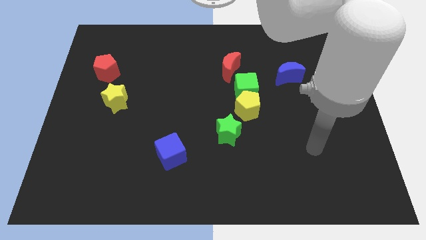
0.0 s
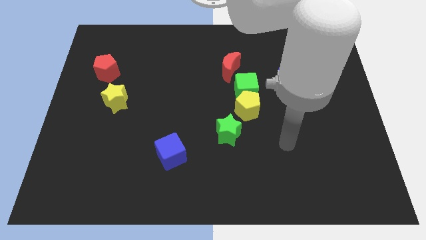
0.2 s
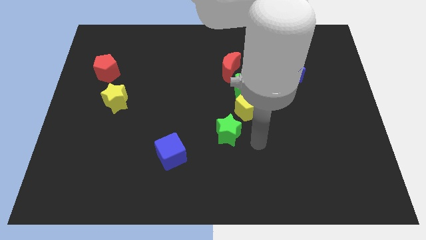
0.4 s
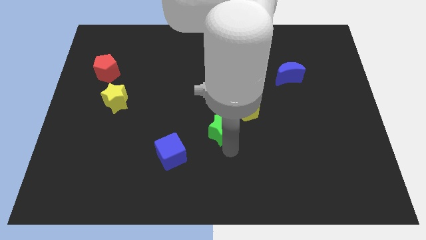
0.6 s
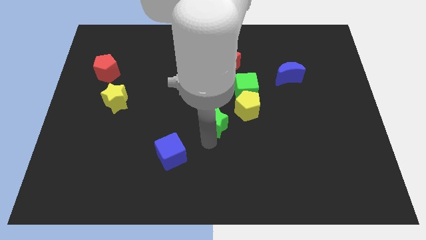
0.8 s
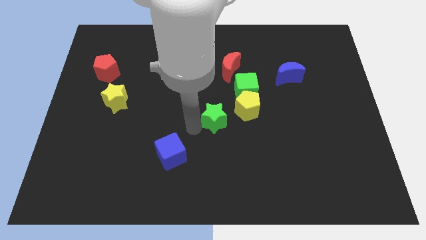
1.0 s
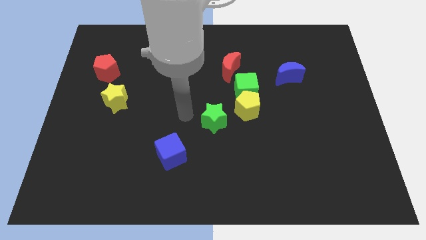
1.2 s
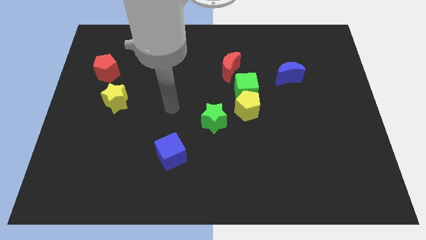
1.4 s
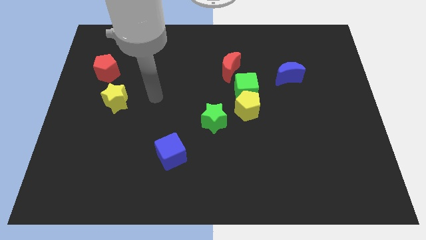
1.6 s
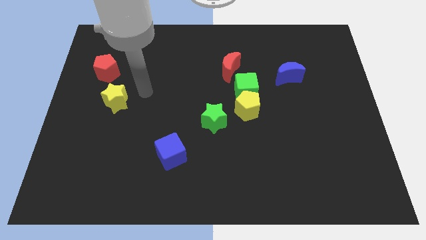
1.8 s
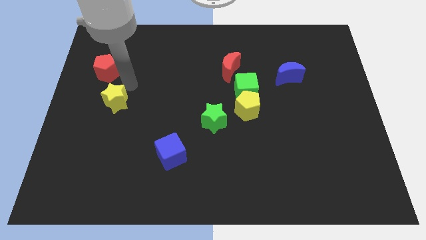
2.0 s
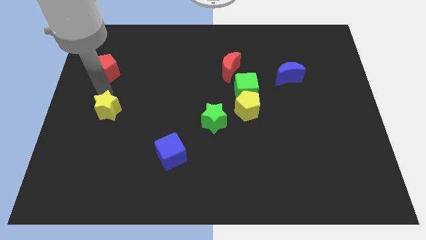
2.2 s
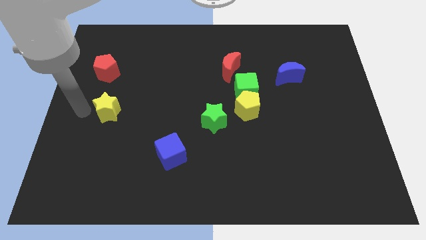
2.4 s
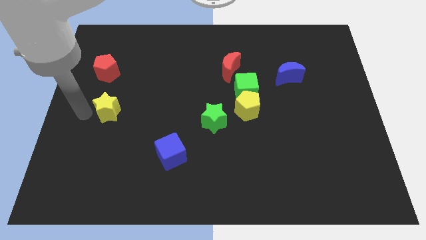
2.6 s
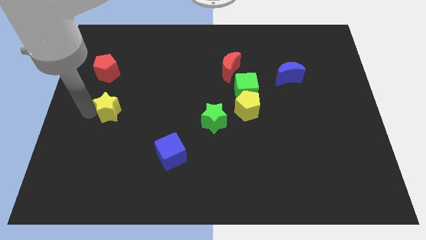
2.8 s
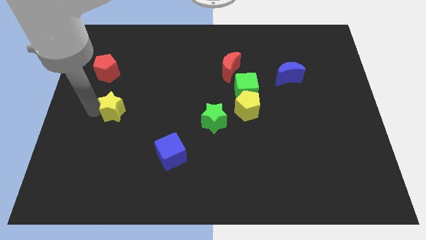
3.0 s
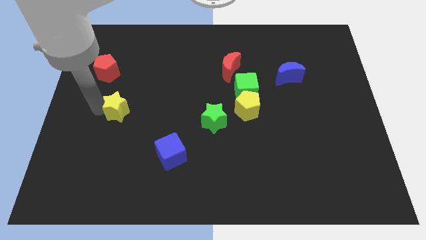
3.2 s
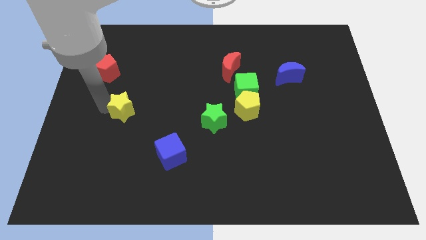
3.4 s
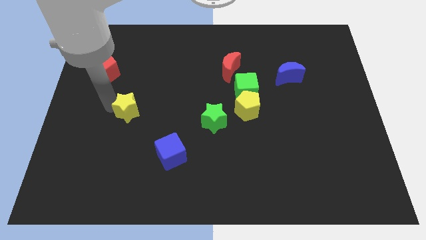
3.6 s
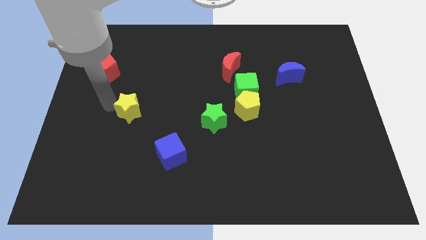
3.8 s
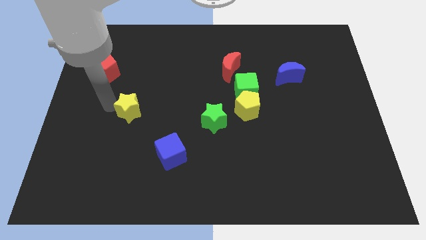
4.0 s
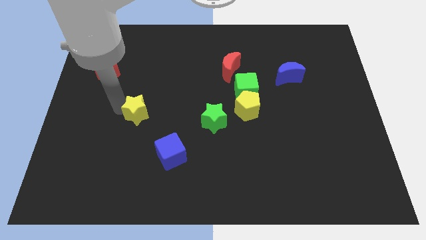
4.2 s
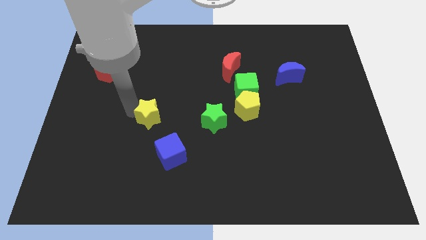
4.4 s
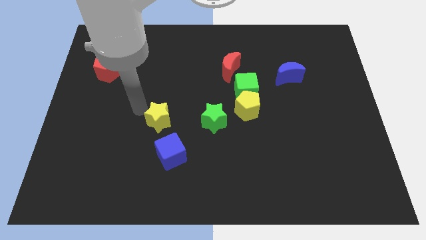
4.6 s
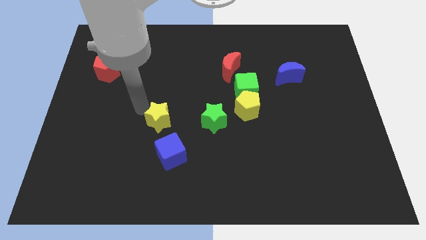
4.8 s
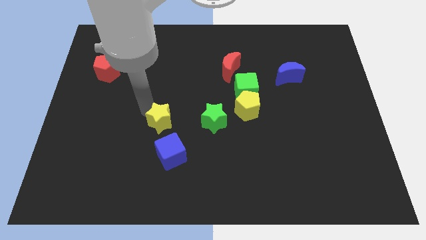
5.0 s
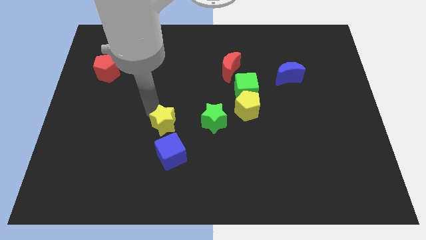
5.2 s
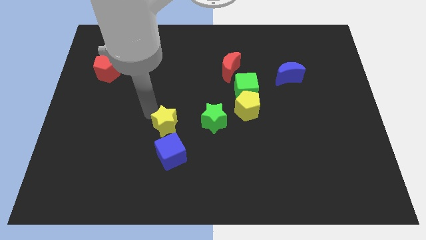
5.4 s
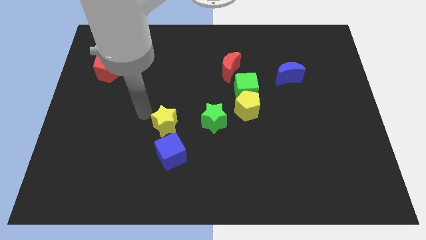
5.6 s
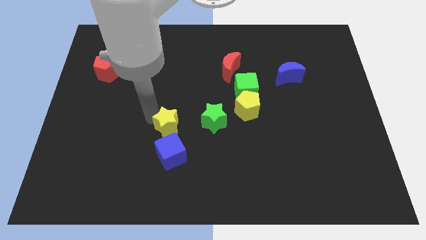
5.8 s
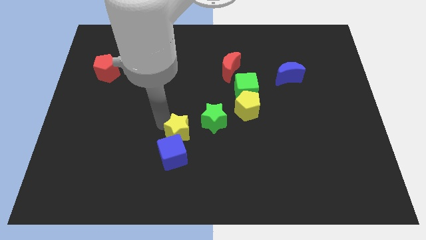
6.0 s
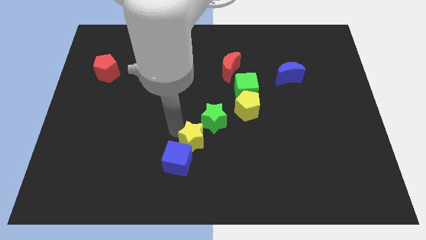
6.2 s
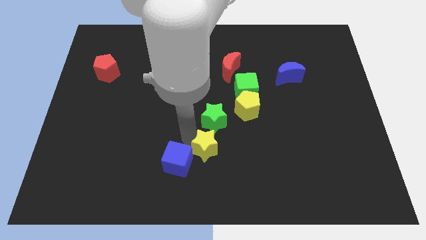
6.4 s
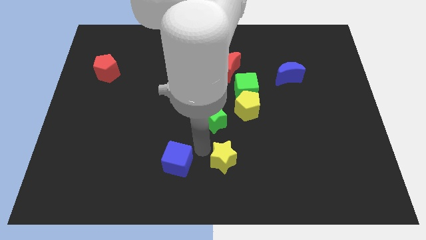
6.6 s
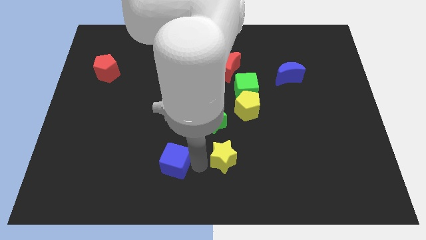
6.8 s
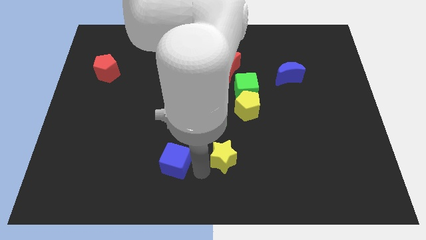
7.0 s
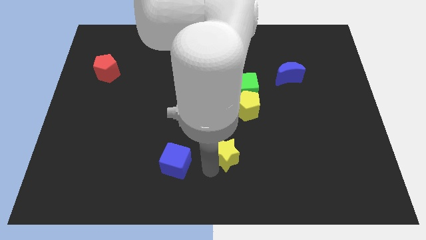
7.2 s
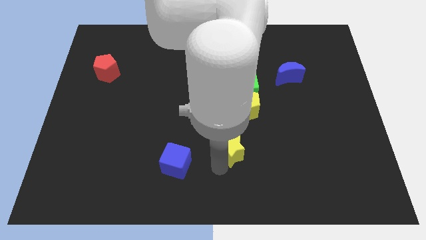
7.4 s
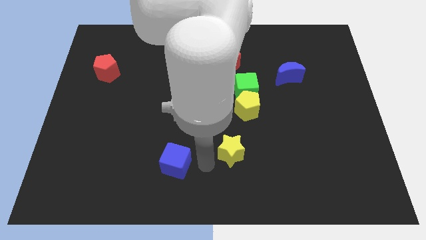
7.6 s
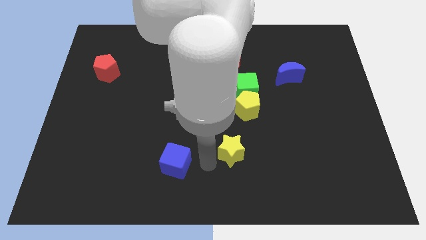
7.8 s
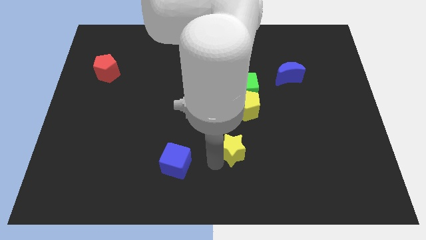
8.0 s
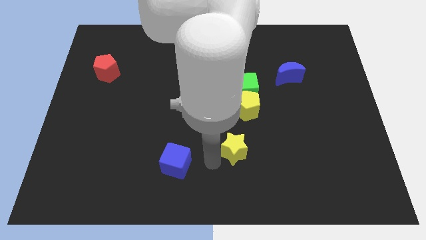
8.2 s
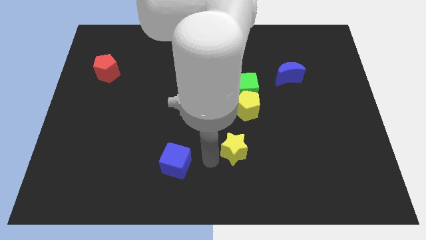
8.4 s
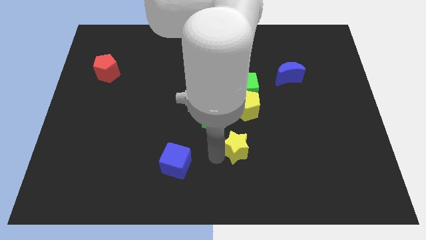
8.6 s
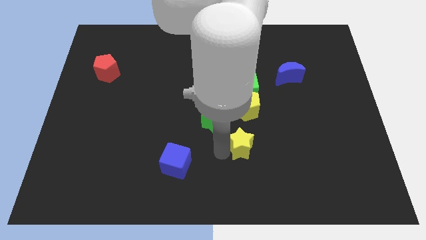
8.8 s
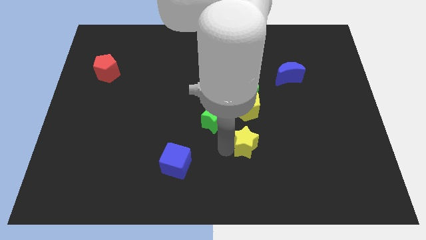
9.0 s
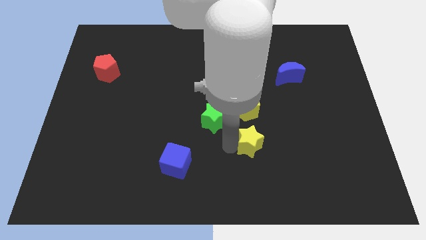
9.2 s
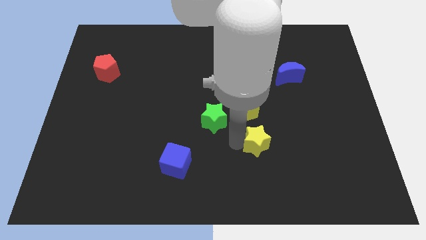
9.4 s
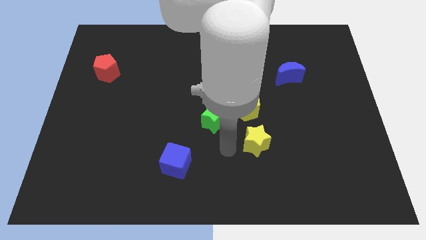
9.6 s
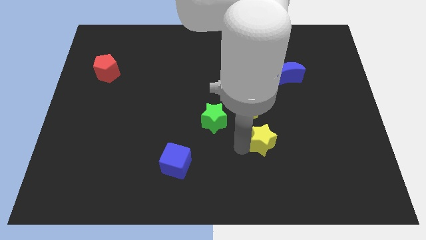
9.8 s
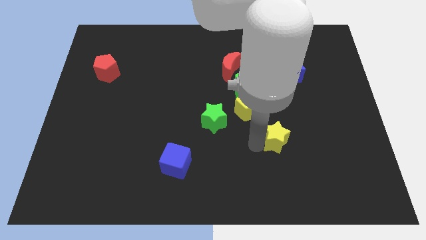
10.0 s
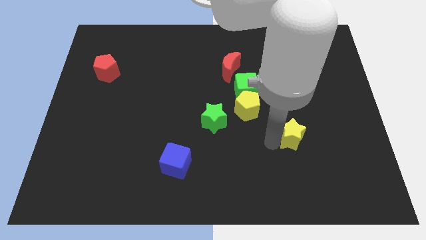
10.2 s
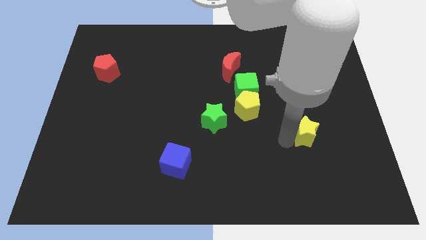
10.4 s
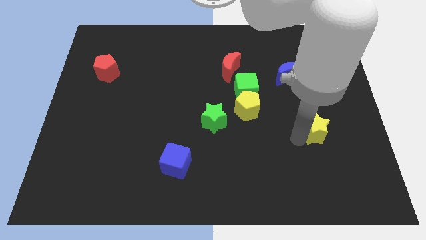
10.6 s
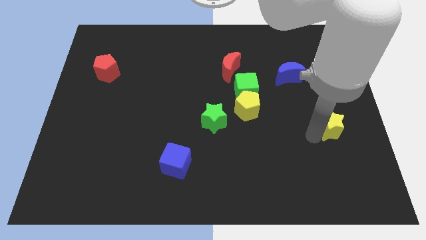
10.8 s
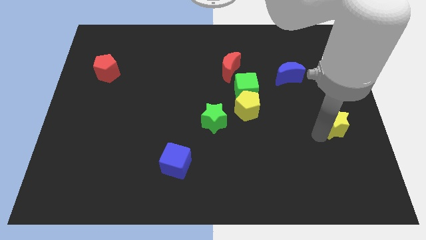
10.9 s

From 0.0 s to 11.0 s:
slide the yellow star to the center right

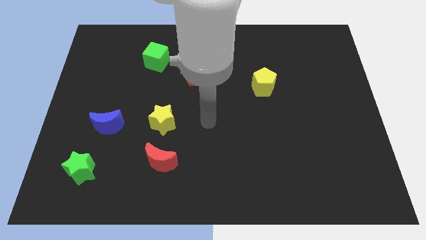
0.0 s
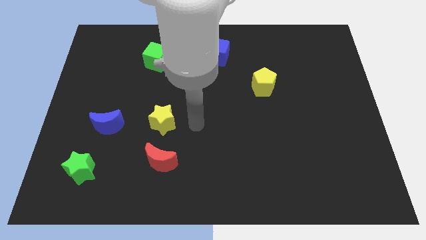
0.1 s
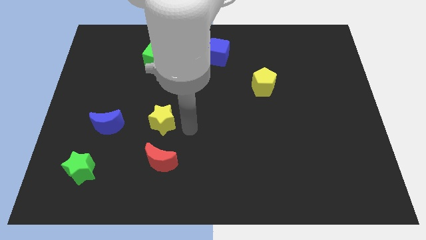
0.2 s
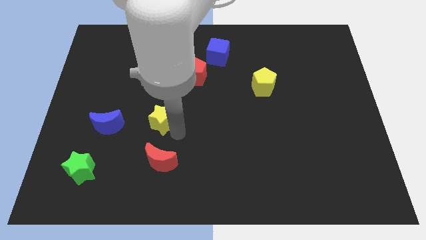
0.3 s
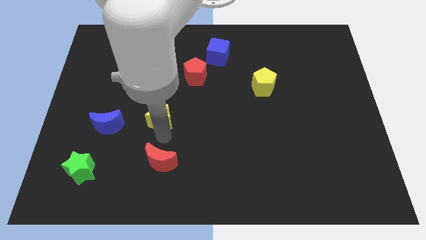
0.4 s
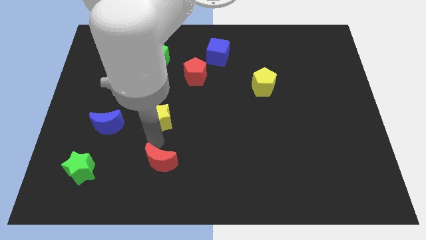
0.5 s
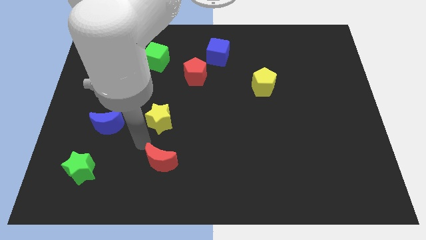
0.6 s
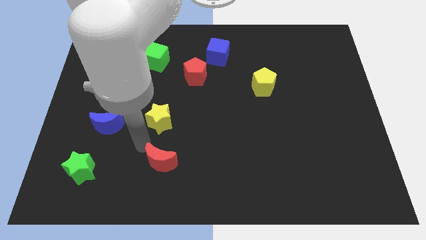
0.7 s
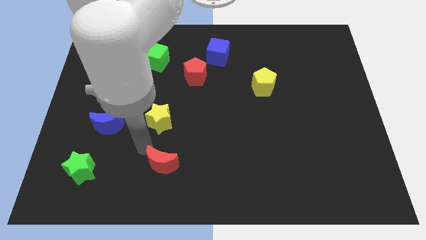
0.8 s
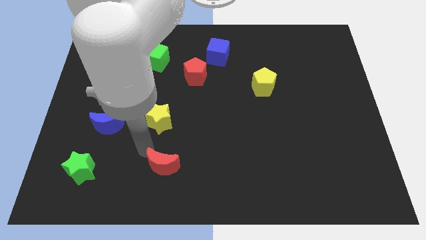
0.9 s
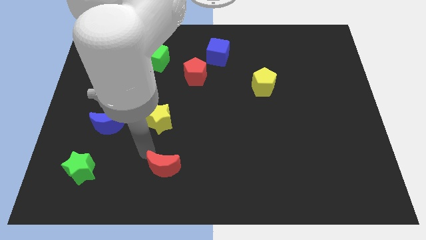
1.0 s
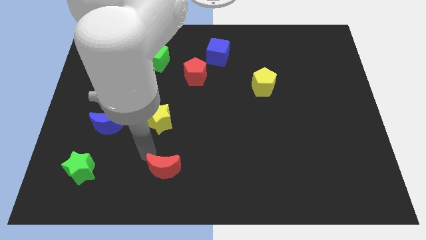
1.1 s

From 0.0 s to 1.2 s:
move the red moon to the bottom
